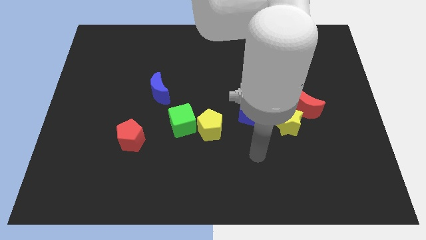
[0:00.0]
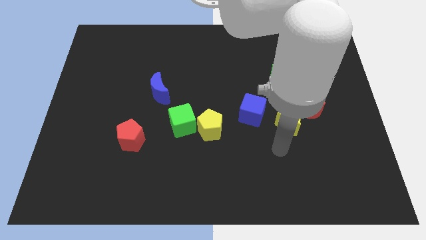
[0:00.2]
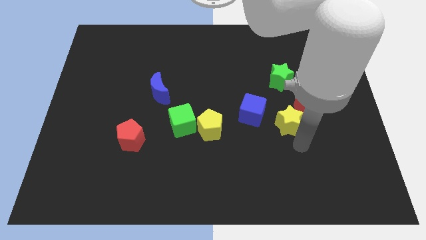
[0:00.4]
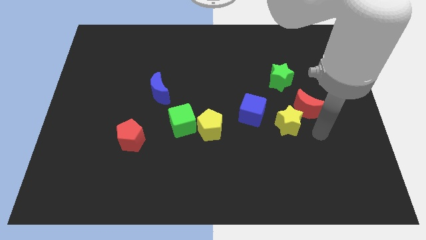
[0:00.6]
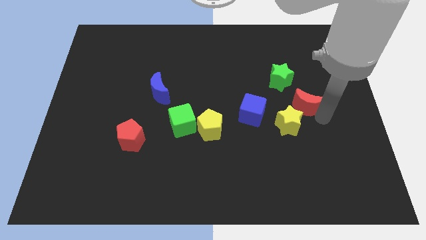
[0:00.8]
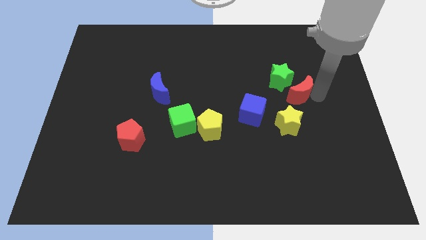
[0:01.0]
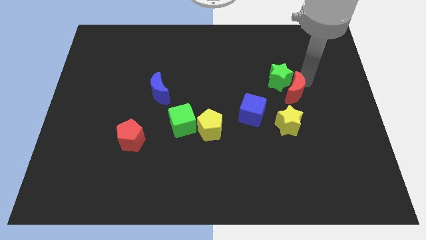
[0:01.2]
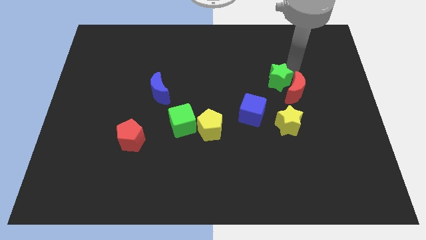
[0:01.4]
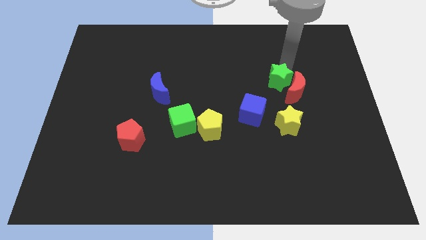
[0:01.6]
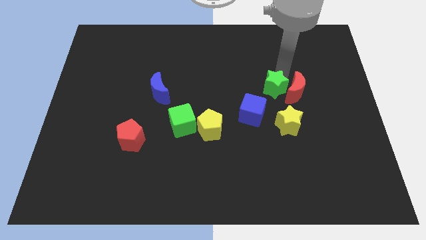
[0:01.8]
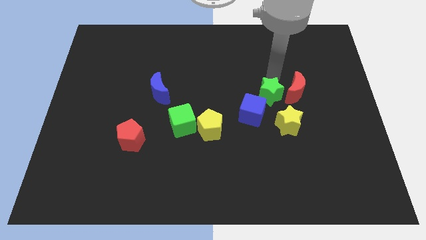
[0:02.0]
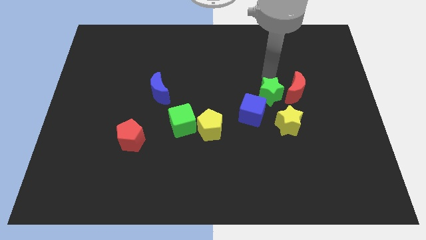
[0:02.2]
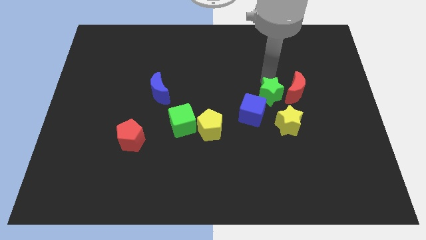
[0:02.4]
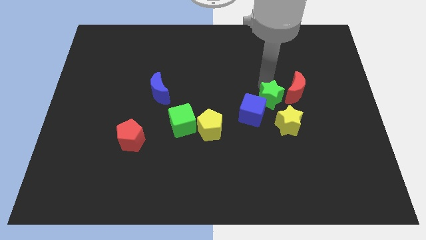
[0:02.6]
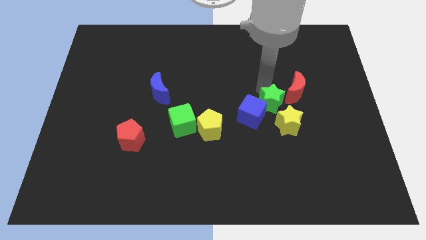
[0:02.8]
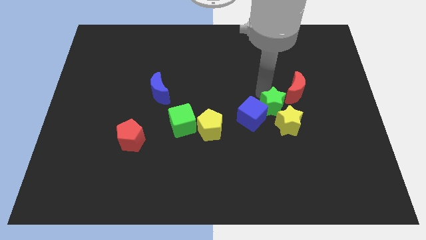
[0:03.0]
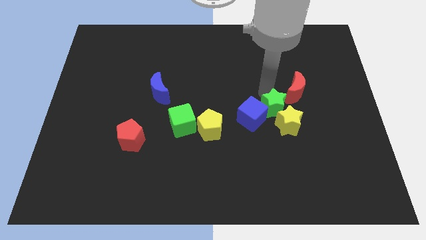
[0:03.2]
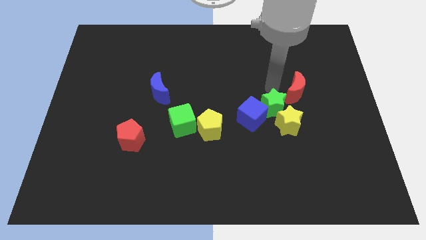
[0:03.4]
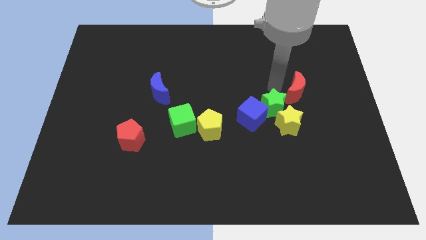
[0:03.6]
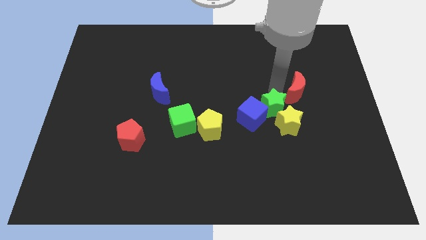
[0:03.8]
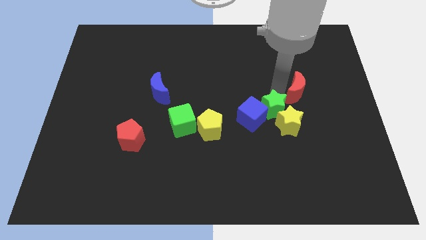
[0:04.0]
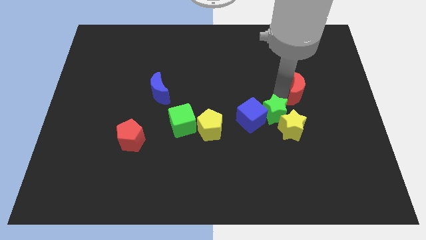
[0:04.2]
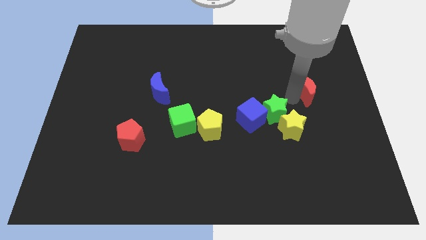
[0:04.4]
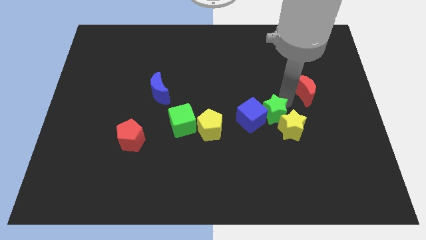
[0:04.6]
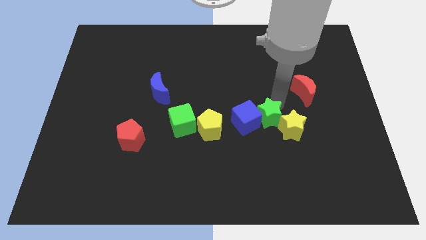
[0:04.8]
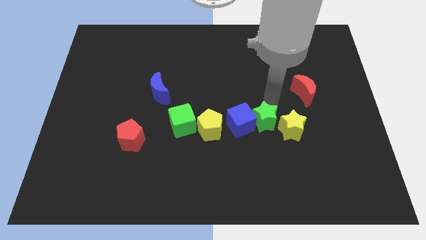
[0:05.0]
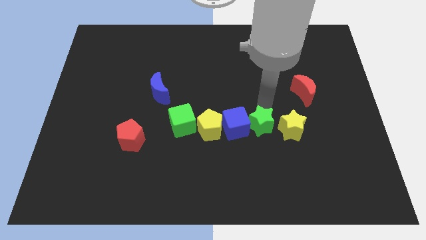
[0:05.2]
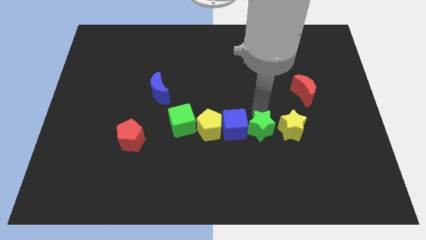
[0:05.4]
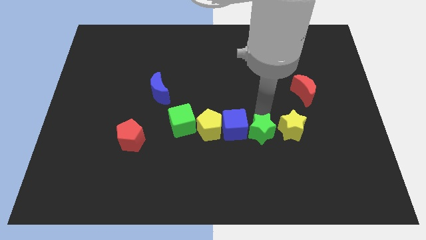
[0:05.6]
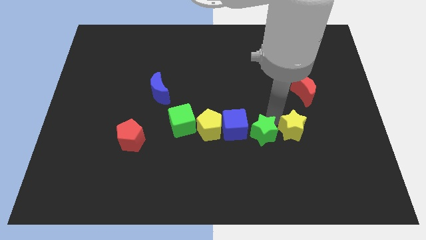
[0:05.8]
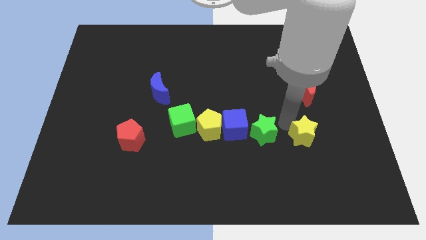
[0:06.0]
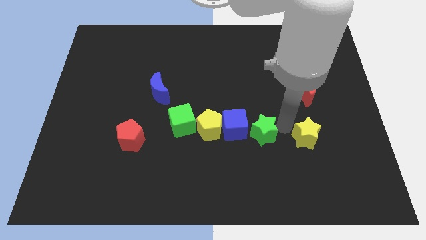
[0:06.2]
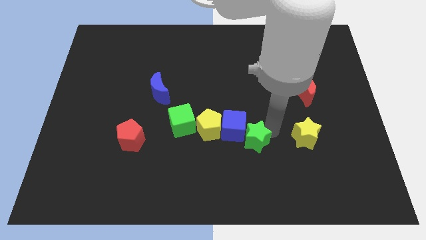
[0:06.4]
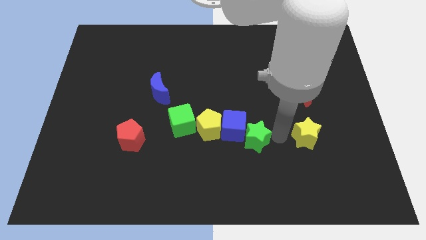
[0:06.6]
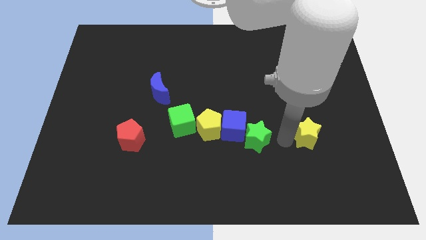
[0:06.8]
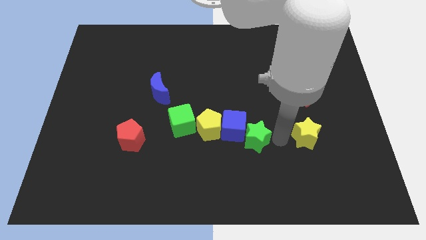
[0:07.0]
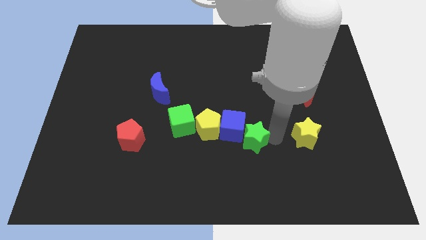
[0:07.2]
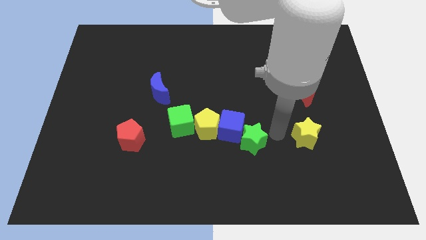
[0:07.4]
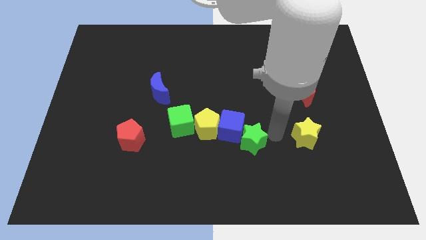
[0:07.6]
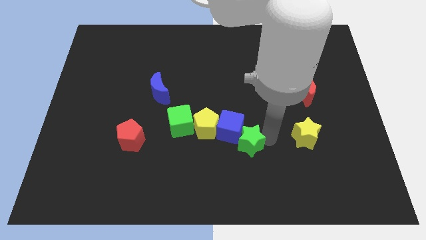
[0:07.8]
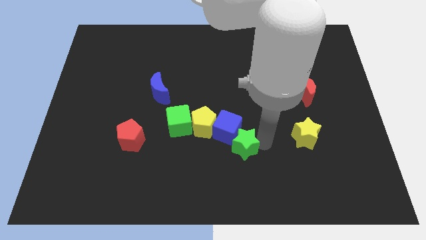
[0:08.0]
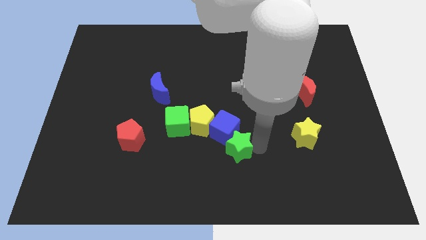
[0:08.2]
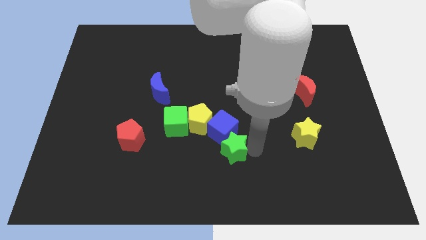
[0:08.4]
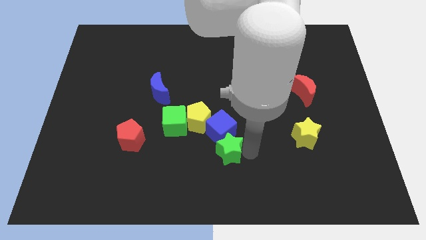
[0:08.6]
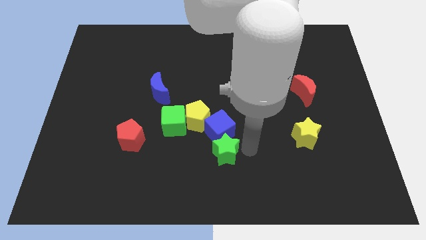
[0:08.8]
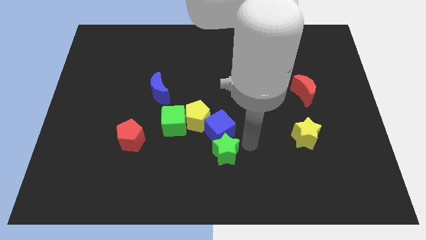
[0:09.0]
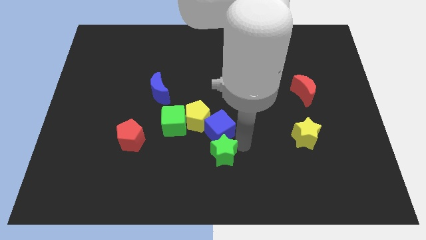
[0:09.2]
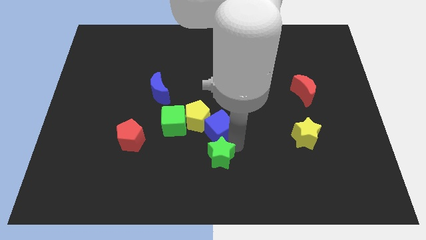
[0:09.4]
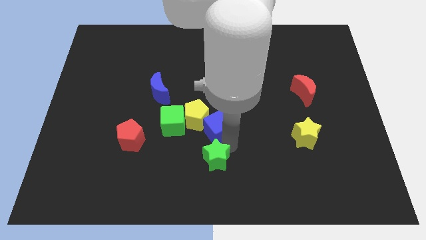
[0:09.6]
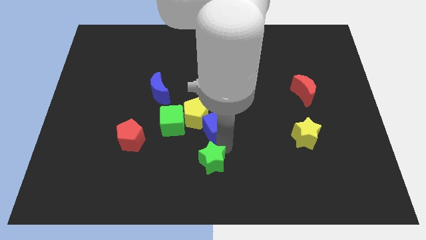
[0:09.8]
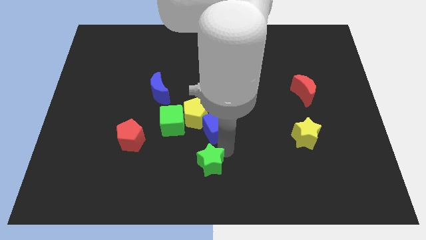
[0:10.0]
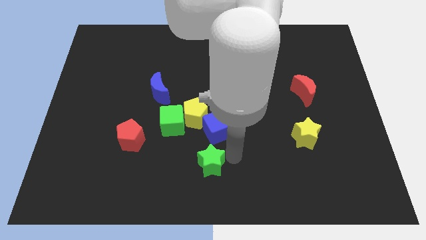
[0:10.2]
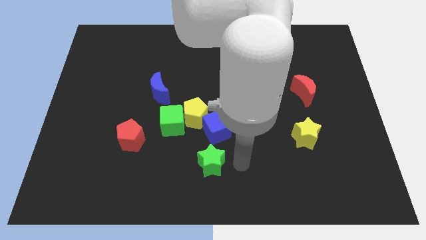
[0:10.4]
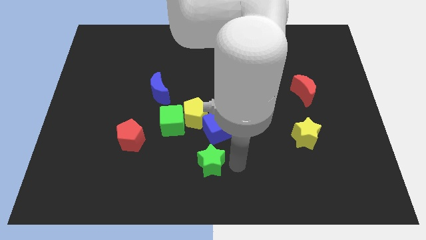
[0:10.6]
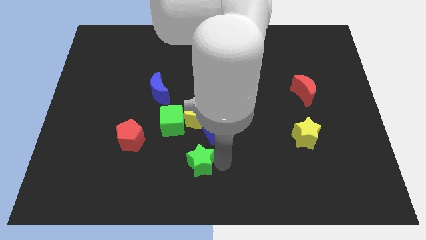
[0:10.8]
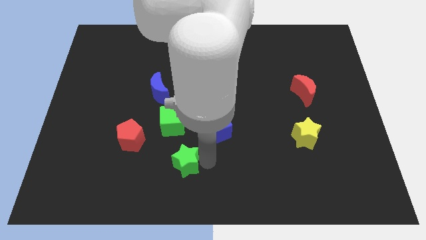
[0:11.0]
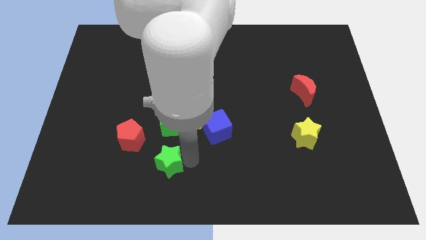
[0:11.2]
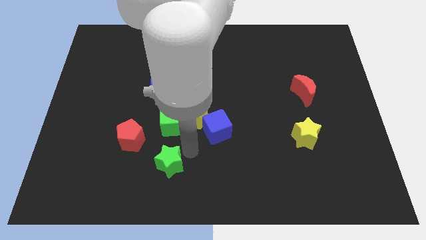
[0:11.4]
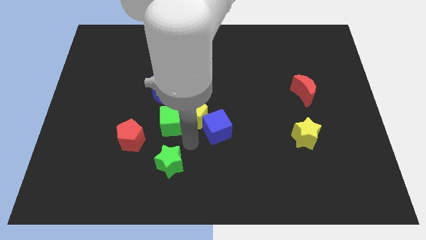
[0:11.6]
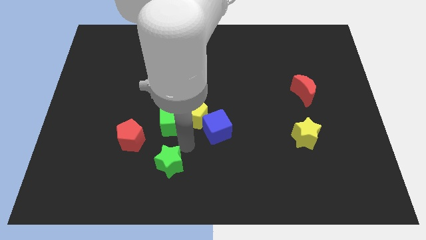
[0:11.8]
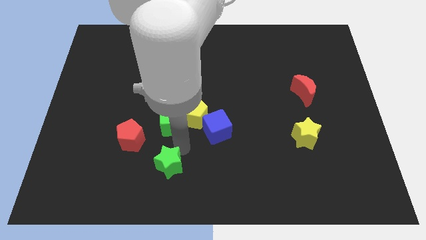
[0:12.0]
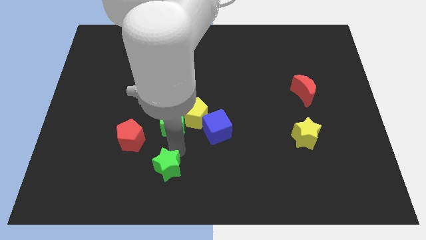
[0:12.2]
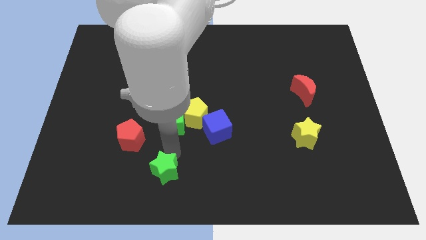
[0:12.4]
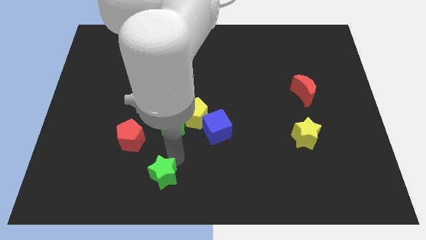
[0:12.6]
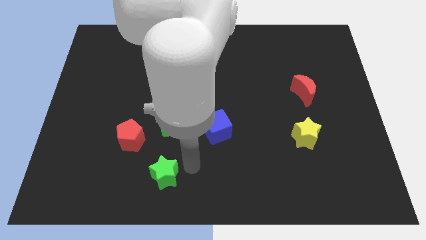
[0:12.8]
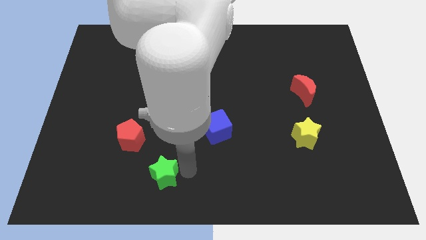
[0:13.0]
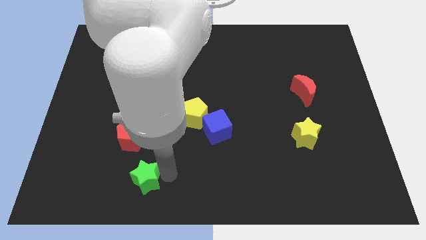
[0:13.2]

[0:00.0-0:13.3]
move the green star to the bottom of the red pentagon

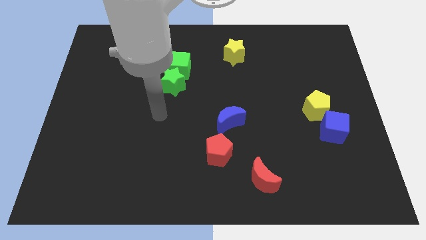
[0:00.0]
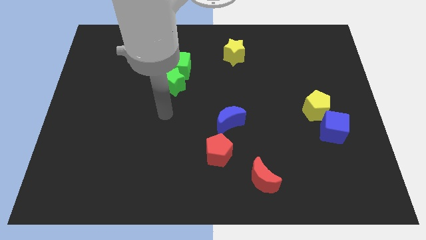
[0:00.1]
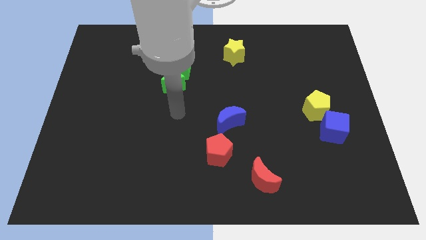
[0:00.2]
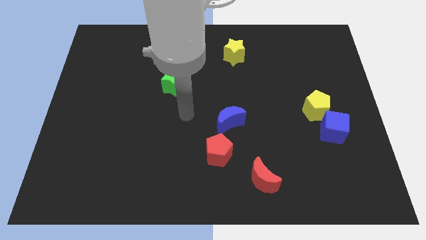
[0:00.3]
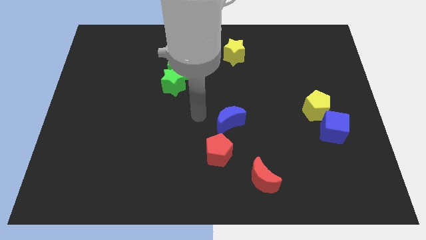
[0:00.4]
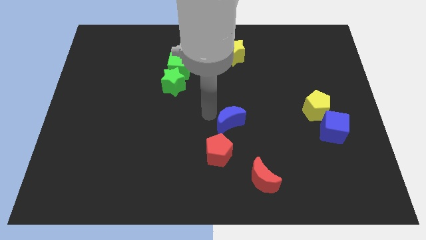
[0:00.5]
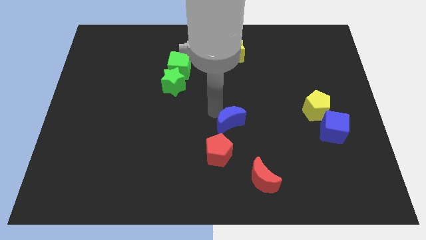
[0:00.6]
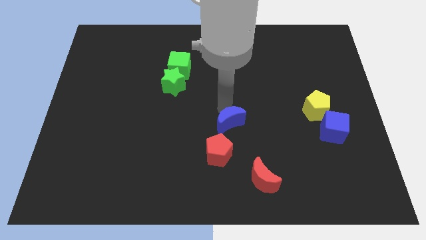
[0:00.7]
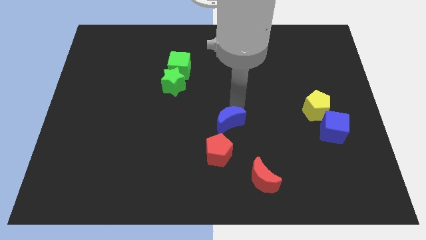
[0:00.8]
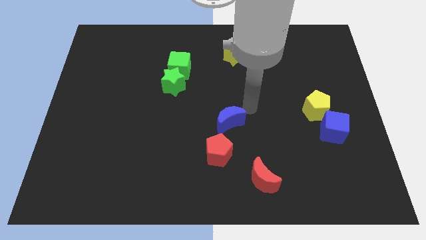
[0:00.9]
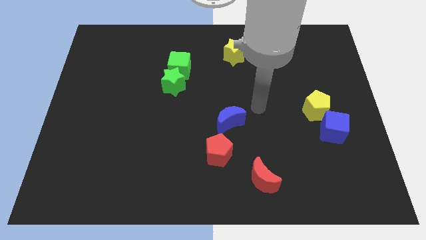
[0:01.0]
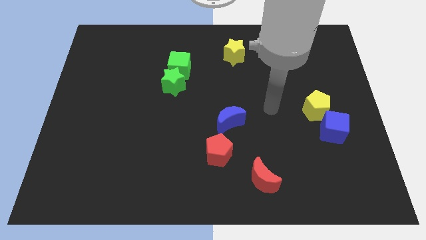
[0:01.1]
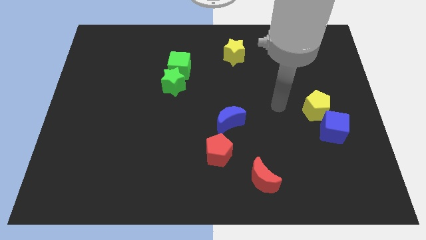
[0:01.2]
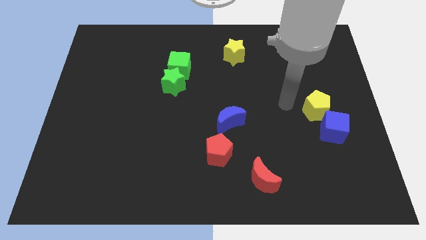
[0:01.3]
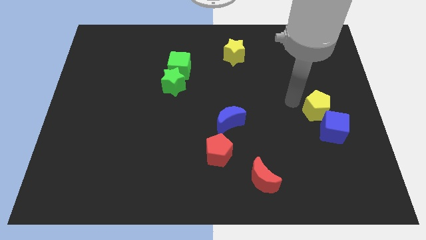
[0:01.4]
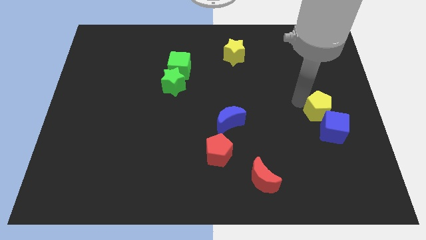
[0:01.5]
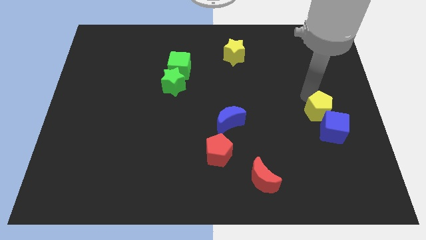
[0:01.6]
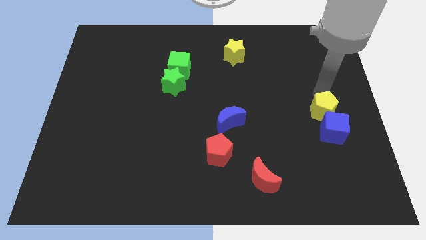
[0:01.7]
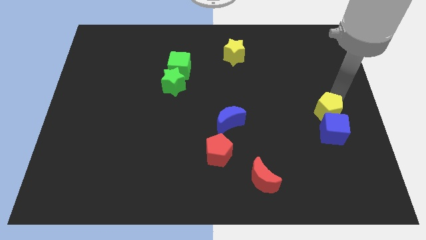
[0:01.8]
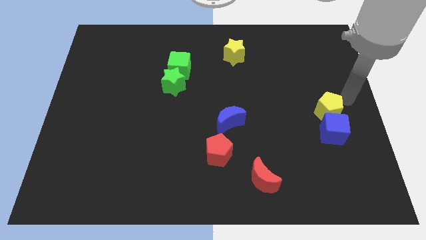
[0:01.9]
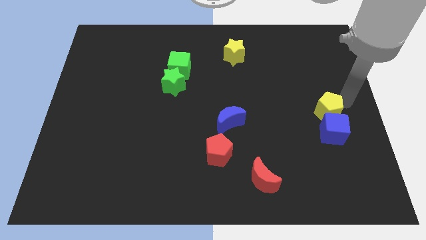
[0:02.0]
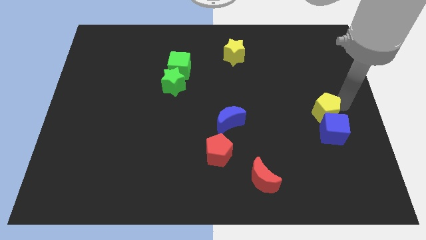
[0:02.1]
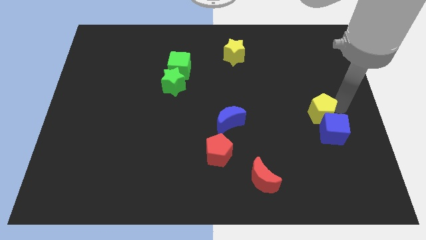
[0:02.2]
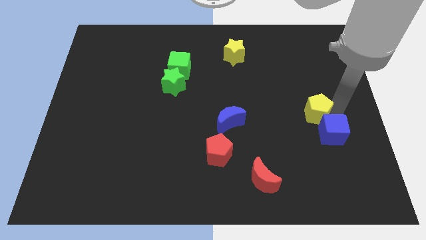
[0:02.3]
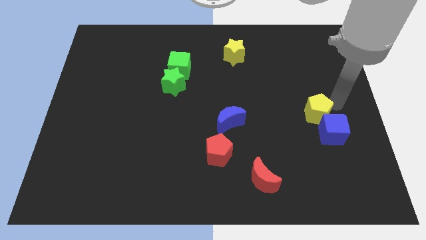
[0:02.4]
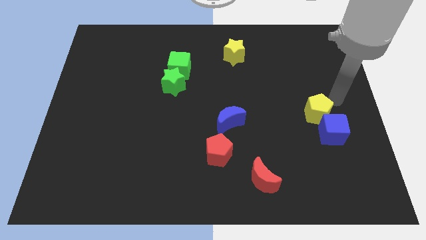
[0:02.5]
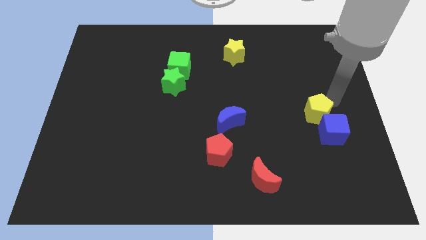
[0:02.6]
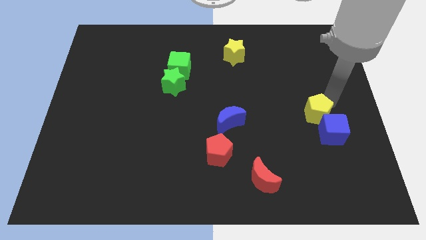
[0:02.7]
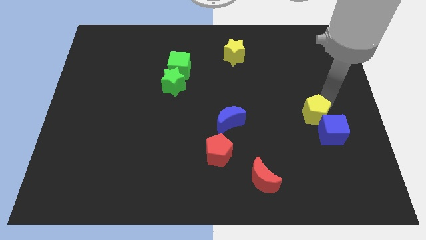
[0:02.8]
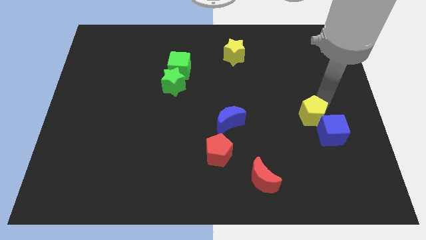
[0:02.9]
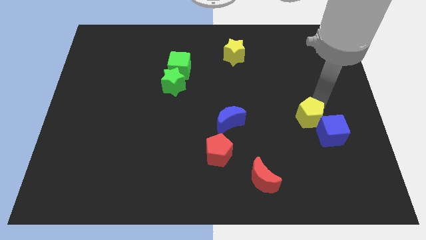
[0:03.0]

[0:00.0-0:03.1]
put the yellow pentagon just left of the blue cube
